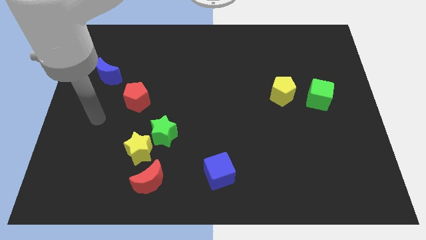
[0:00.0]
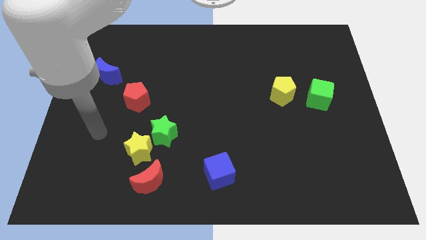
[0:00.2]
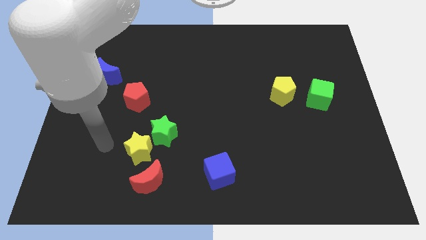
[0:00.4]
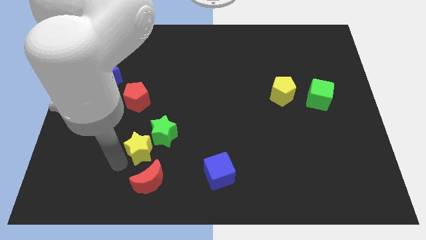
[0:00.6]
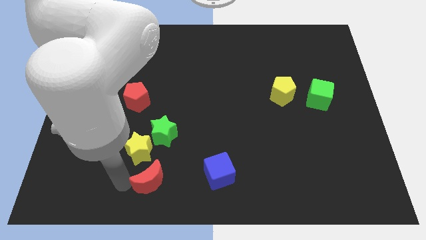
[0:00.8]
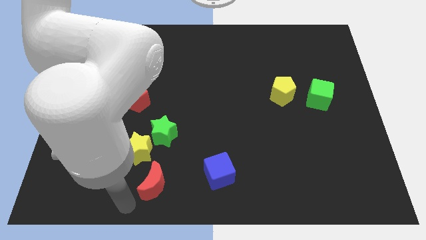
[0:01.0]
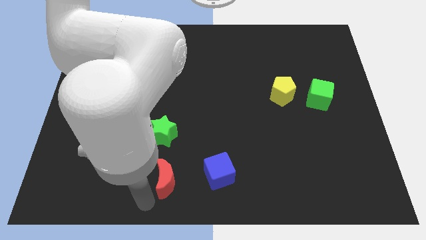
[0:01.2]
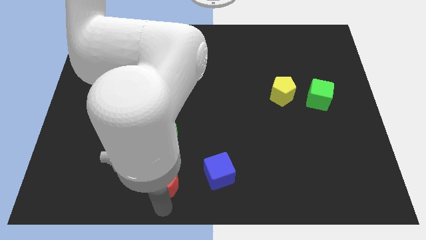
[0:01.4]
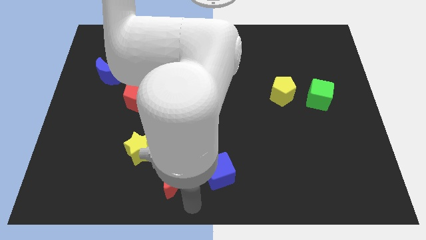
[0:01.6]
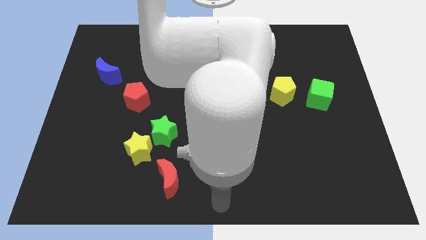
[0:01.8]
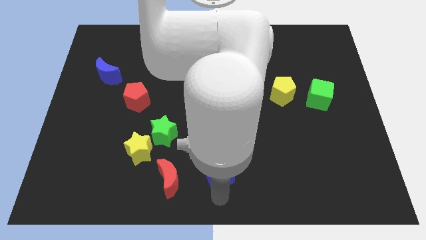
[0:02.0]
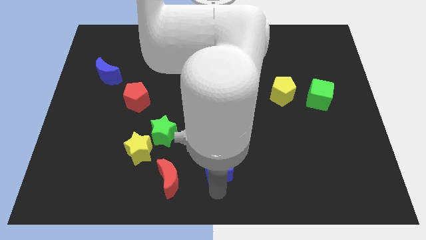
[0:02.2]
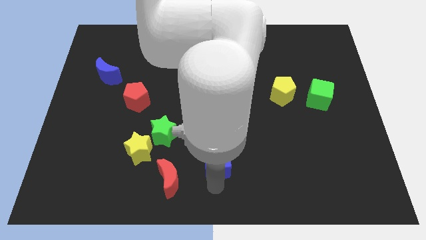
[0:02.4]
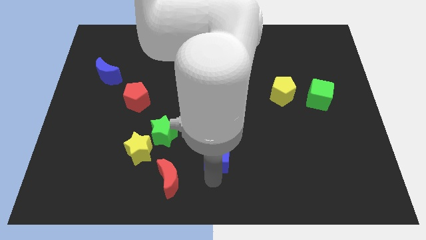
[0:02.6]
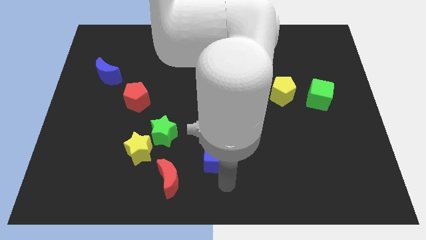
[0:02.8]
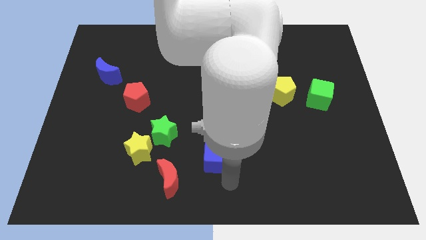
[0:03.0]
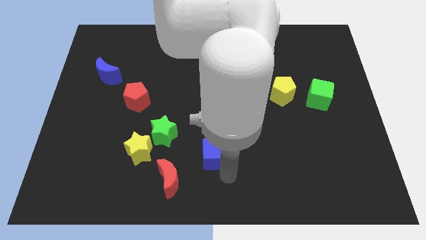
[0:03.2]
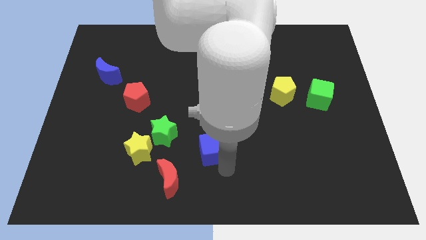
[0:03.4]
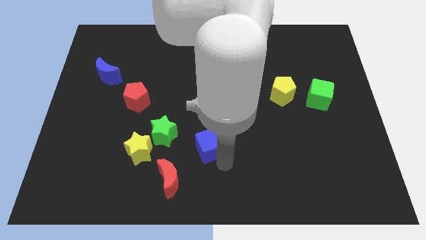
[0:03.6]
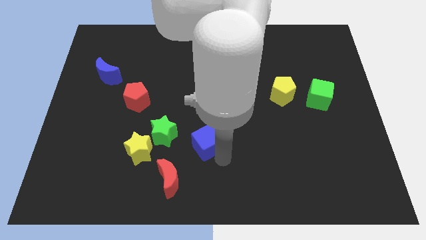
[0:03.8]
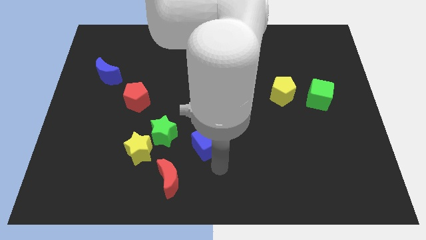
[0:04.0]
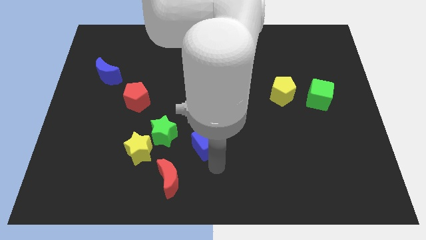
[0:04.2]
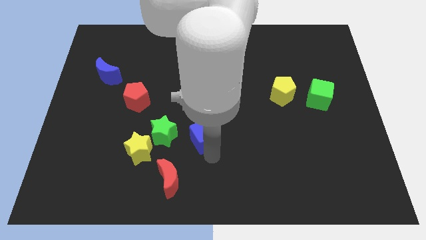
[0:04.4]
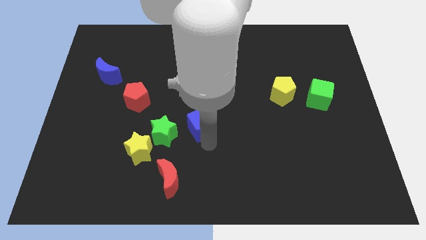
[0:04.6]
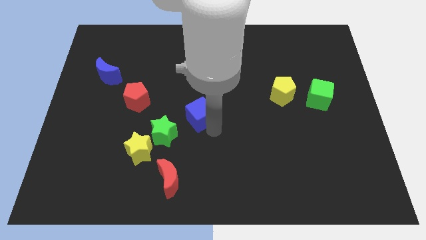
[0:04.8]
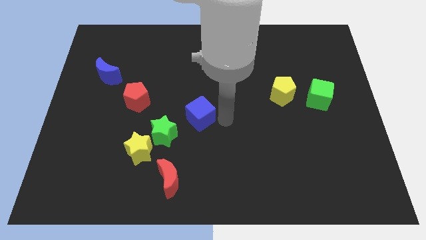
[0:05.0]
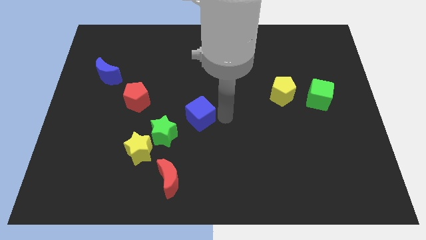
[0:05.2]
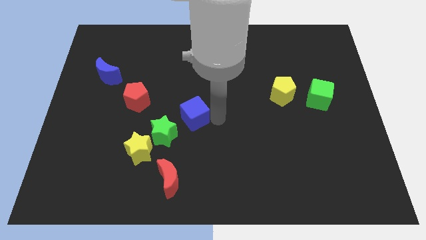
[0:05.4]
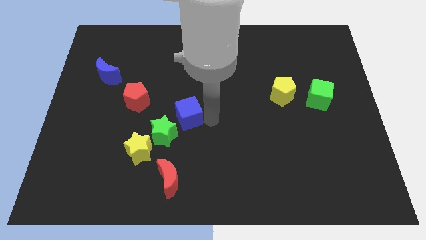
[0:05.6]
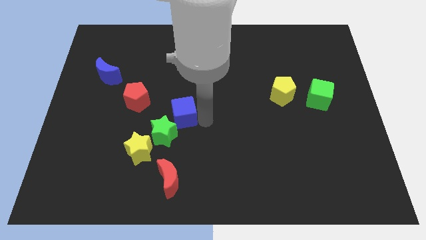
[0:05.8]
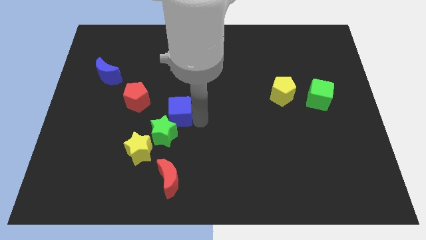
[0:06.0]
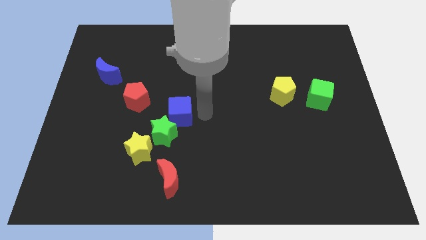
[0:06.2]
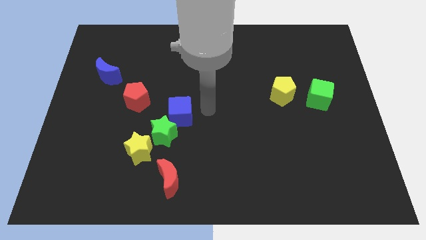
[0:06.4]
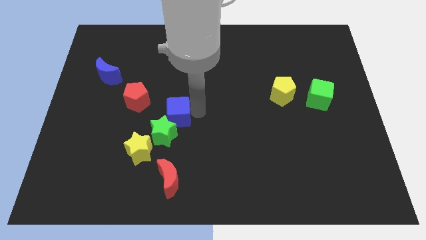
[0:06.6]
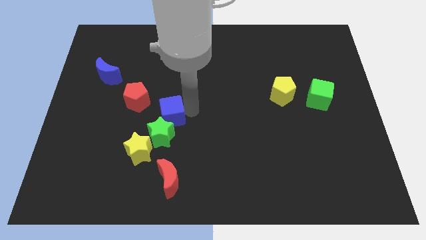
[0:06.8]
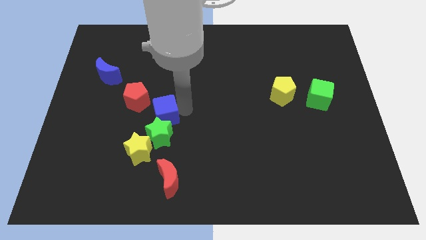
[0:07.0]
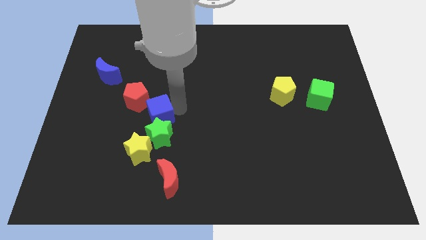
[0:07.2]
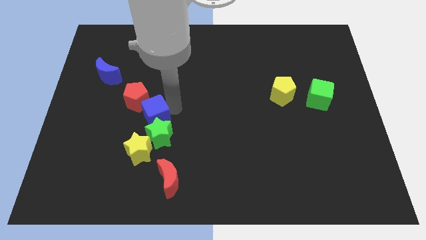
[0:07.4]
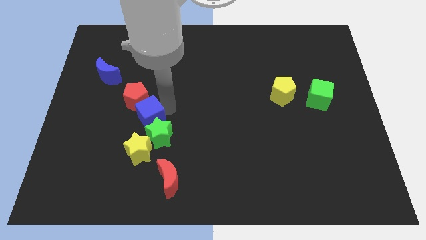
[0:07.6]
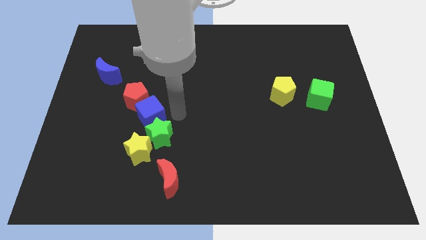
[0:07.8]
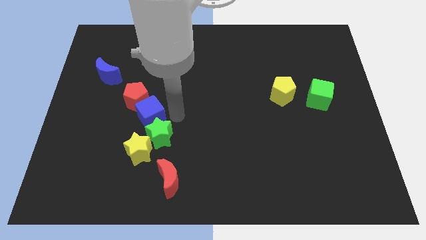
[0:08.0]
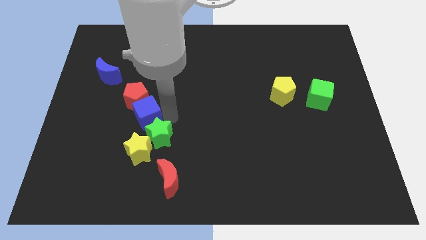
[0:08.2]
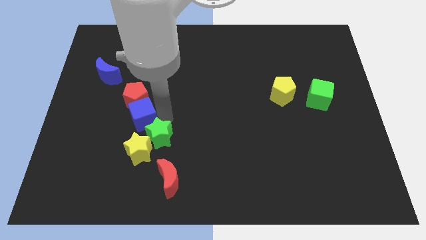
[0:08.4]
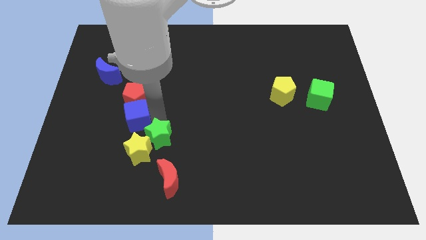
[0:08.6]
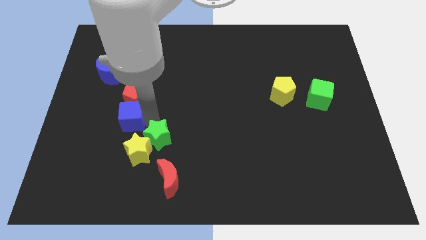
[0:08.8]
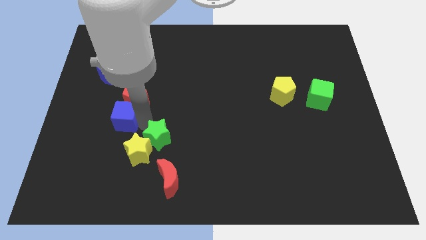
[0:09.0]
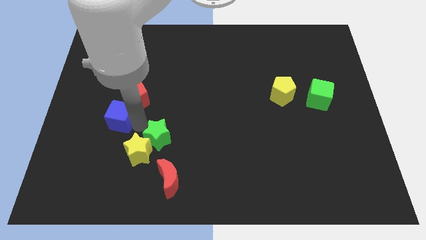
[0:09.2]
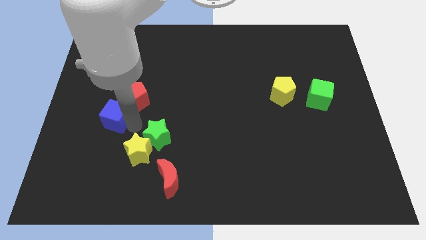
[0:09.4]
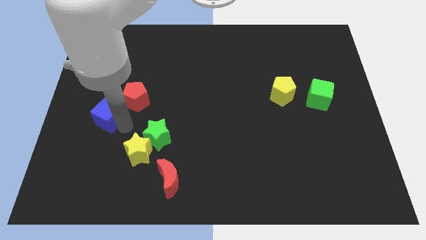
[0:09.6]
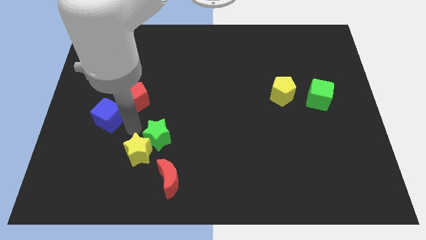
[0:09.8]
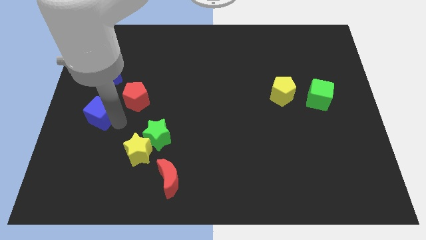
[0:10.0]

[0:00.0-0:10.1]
push the blue cube to the left side

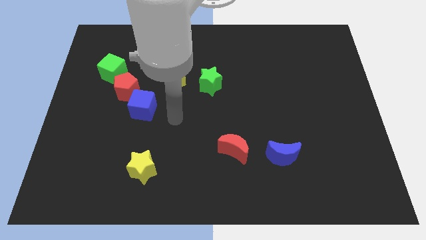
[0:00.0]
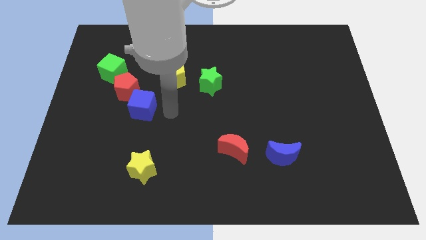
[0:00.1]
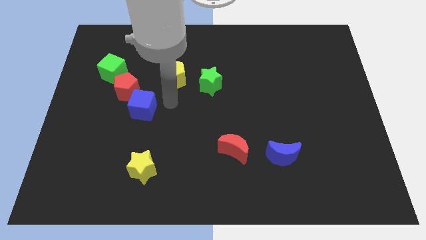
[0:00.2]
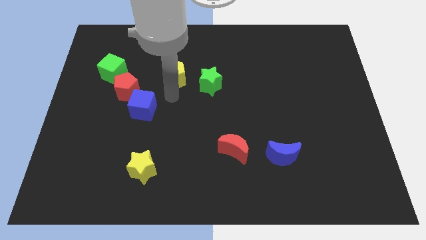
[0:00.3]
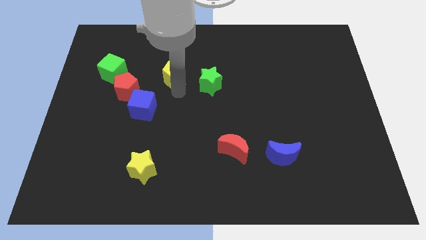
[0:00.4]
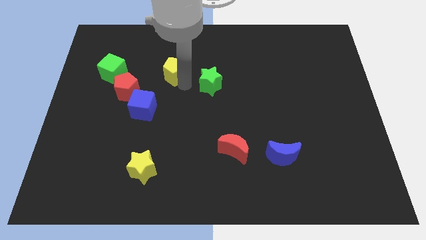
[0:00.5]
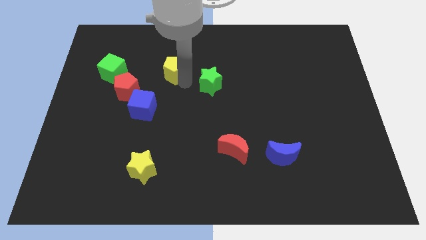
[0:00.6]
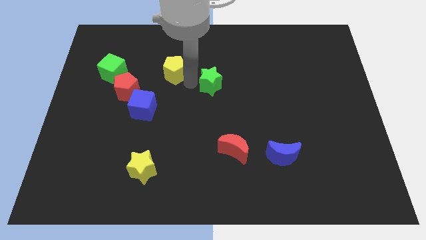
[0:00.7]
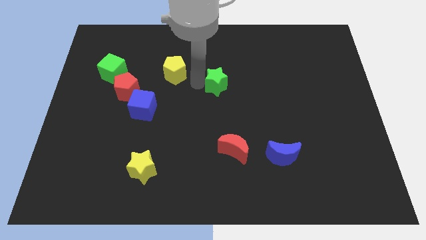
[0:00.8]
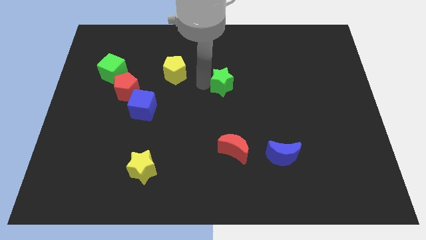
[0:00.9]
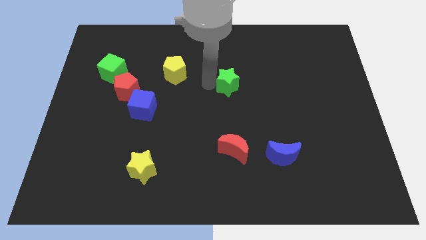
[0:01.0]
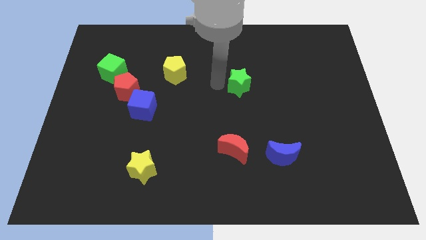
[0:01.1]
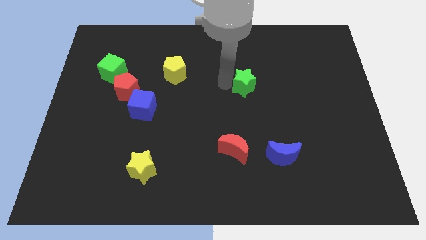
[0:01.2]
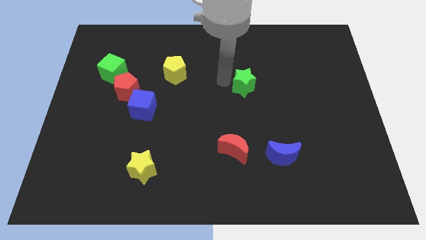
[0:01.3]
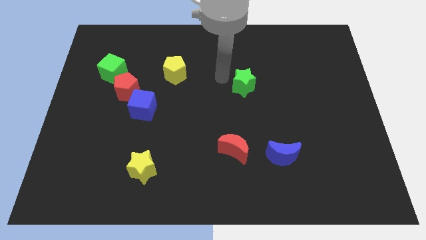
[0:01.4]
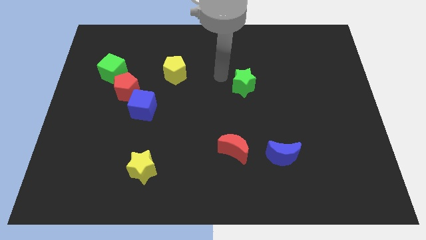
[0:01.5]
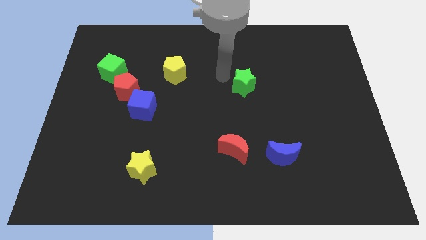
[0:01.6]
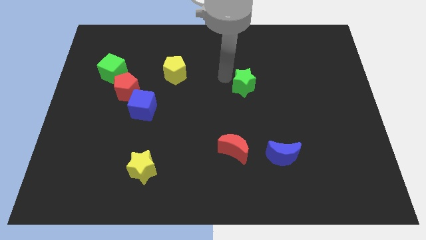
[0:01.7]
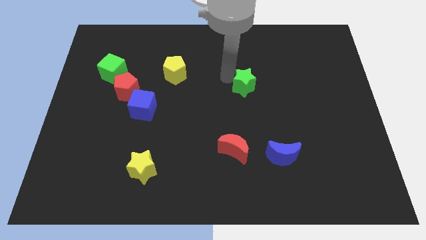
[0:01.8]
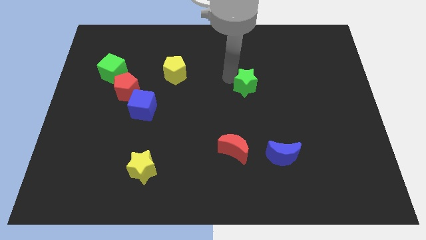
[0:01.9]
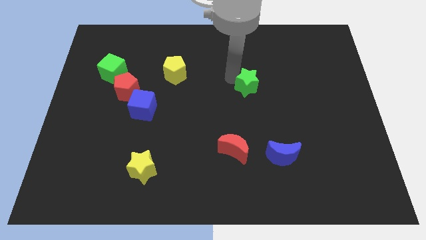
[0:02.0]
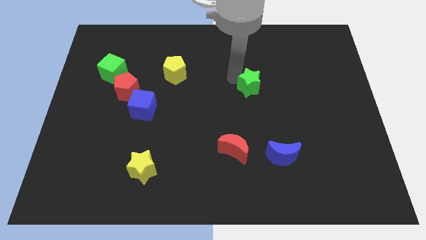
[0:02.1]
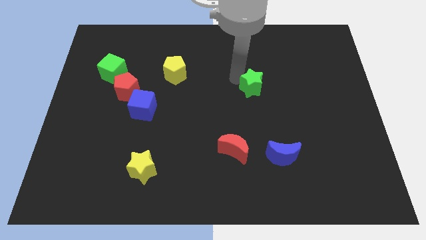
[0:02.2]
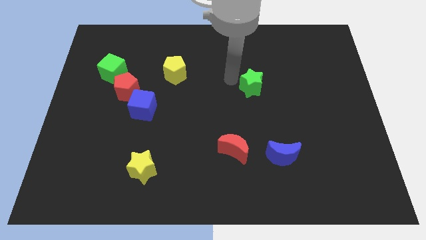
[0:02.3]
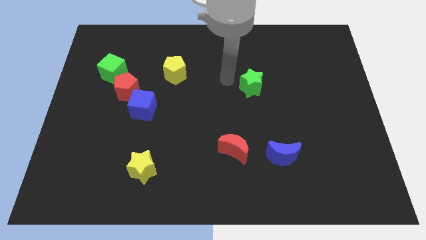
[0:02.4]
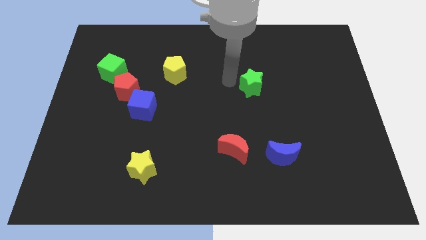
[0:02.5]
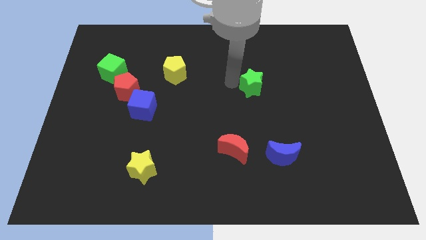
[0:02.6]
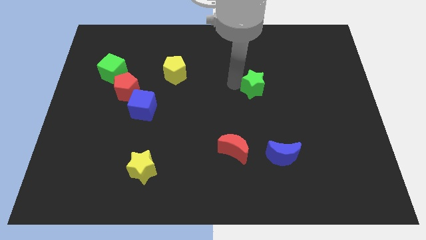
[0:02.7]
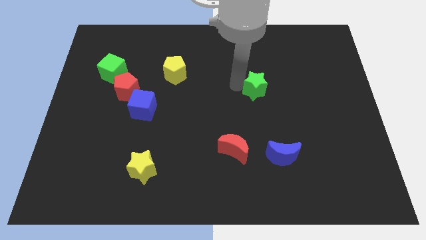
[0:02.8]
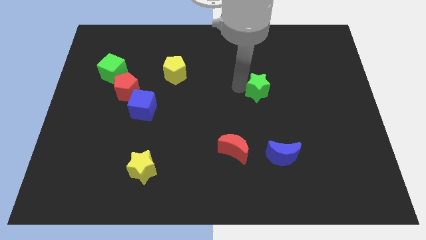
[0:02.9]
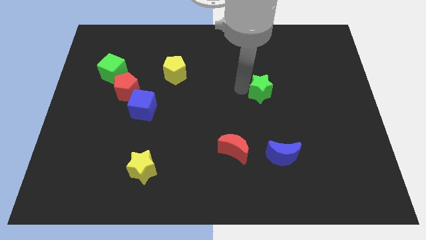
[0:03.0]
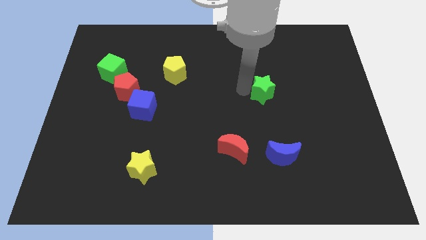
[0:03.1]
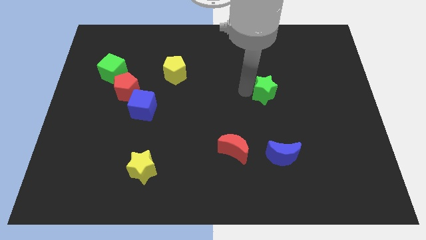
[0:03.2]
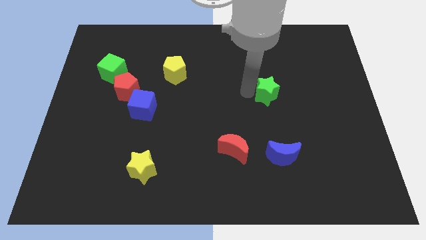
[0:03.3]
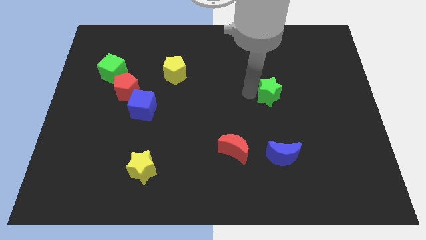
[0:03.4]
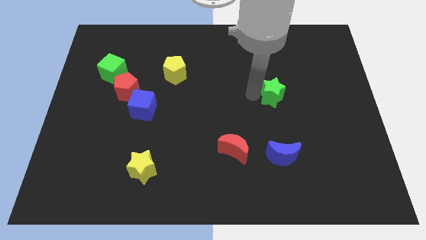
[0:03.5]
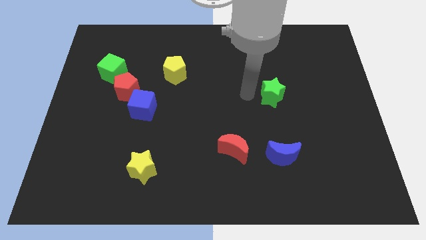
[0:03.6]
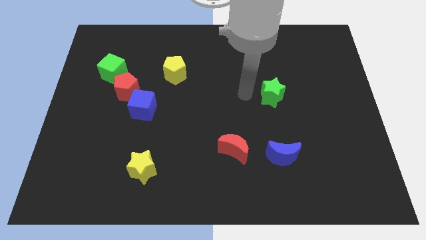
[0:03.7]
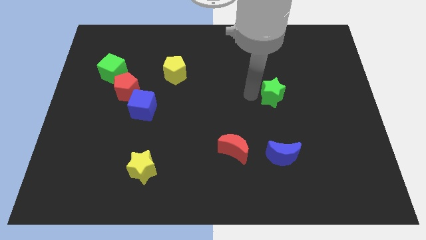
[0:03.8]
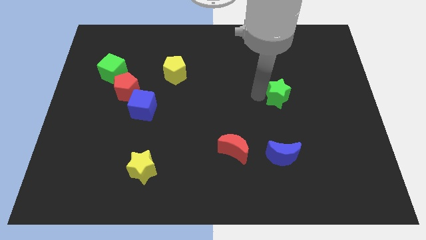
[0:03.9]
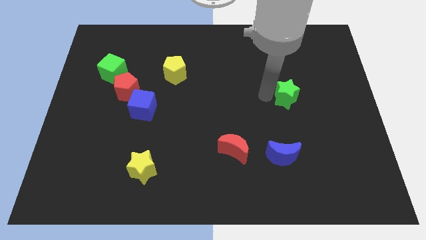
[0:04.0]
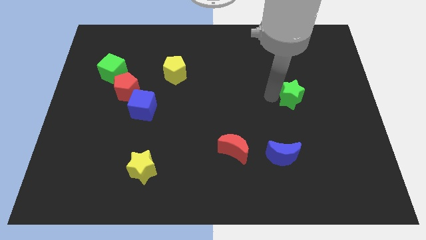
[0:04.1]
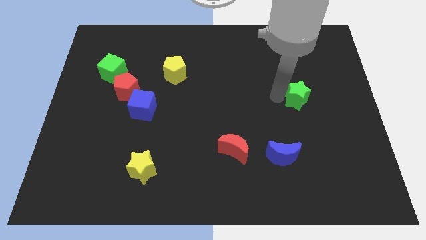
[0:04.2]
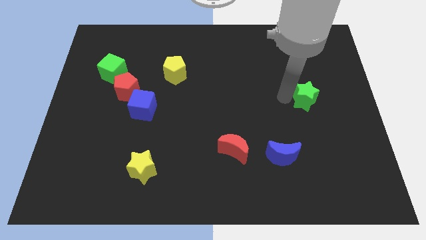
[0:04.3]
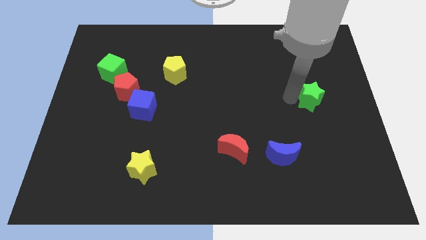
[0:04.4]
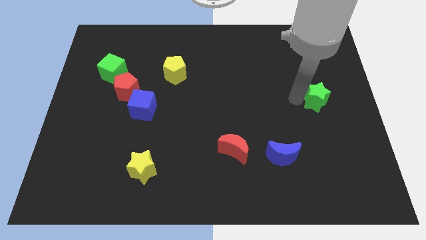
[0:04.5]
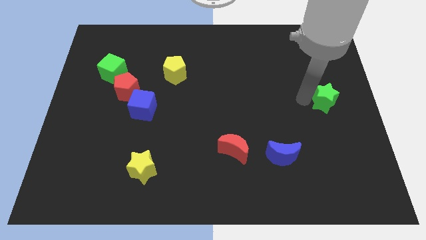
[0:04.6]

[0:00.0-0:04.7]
put the green star to the center right
